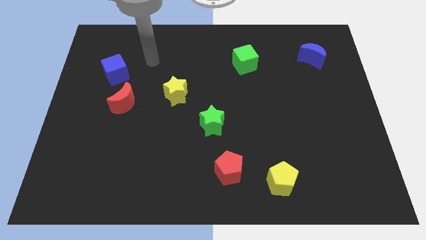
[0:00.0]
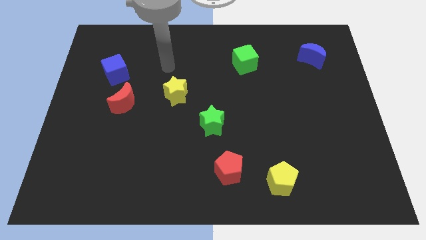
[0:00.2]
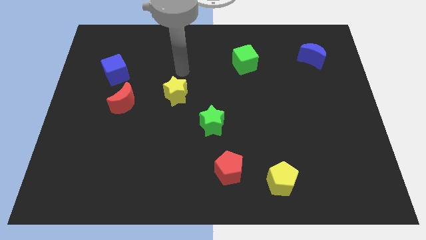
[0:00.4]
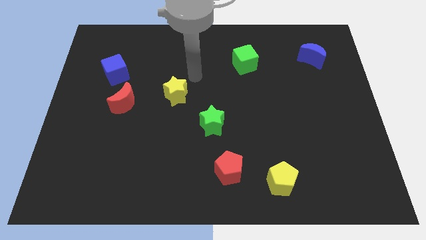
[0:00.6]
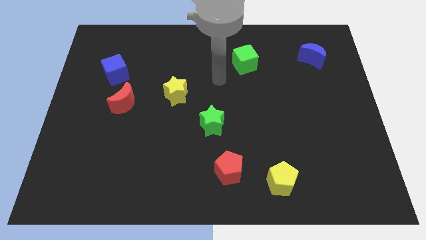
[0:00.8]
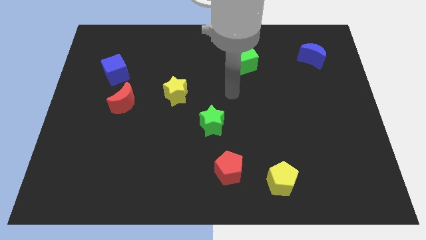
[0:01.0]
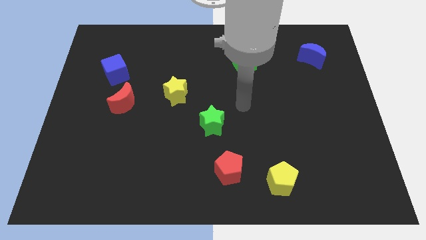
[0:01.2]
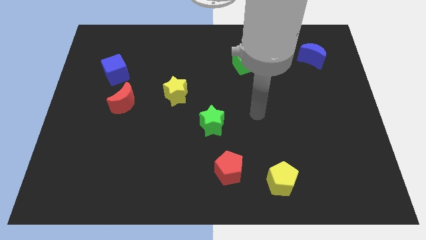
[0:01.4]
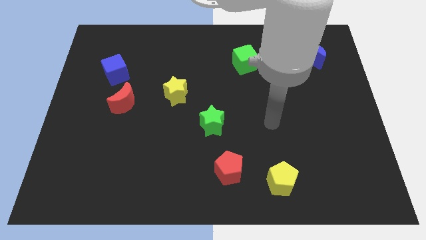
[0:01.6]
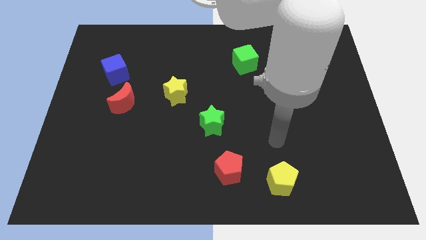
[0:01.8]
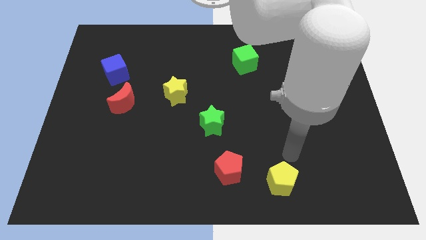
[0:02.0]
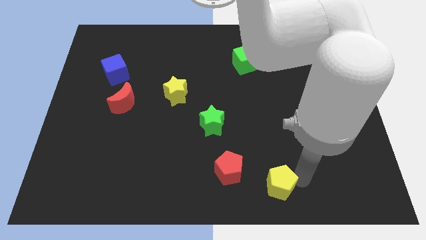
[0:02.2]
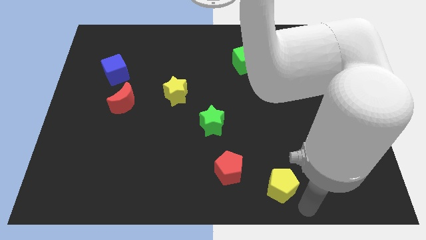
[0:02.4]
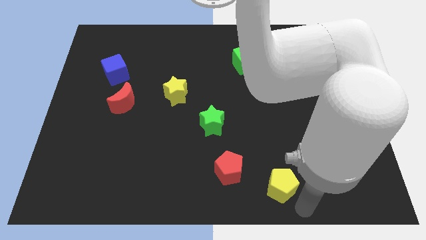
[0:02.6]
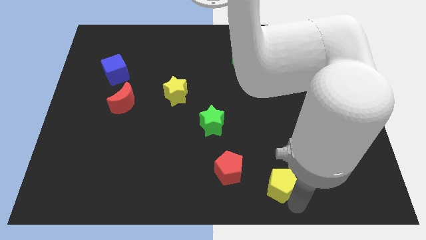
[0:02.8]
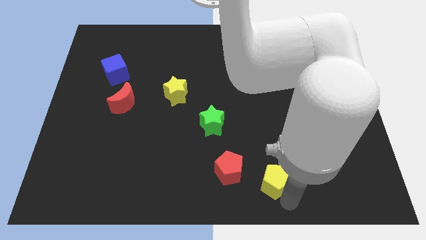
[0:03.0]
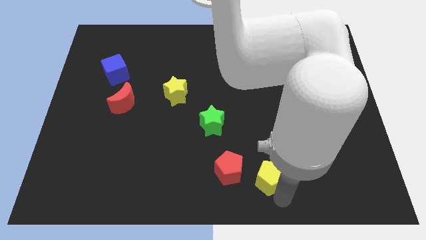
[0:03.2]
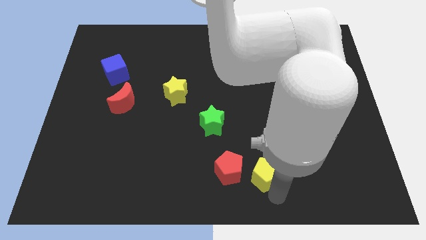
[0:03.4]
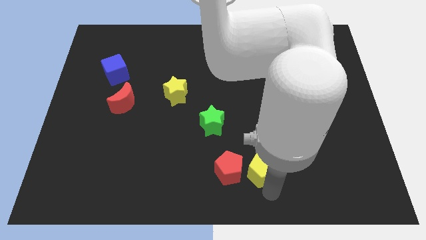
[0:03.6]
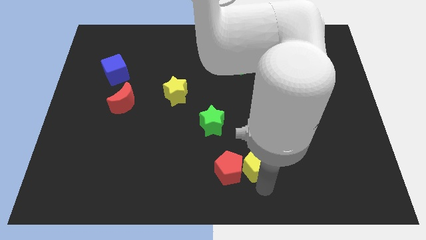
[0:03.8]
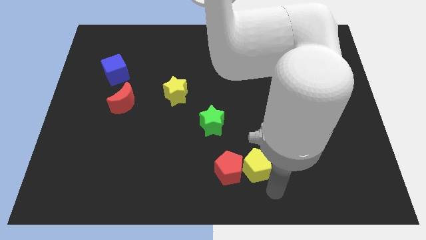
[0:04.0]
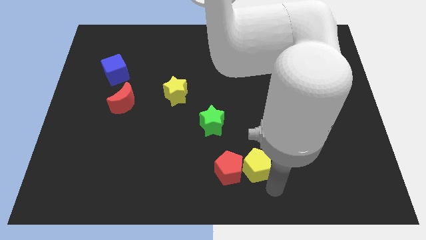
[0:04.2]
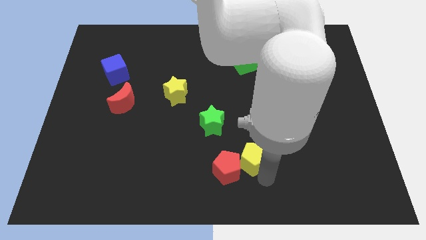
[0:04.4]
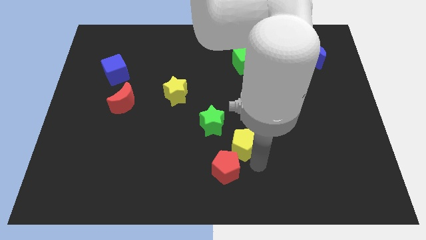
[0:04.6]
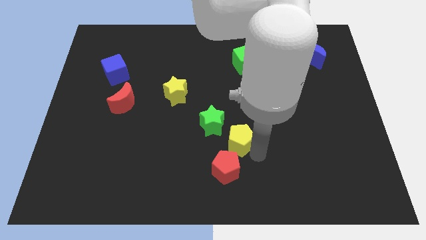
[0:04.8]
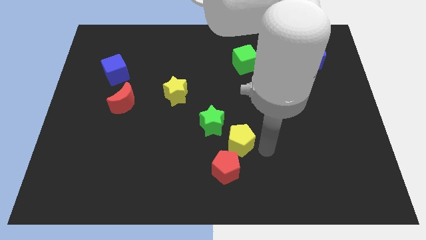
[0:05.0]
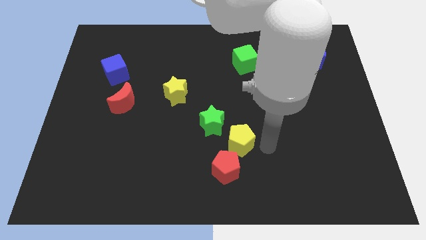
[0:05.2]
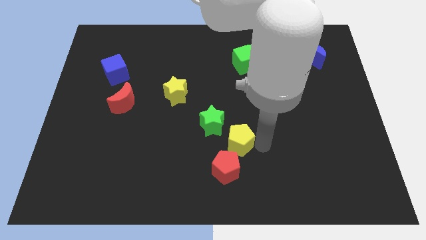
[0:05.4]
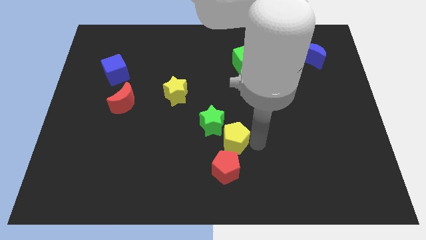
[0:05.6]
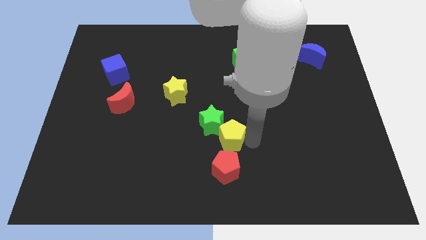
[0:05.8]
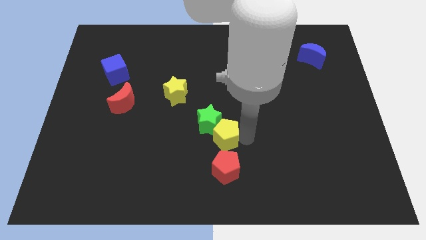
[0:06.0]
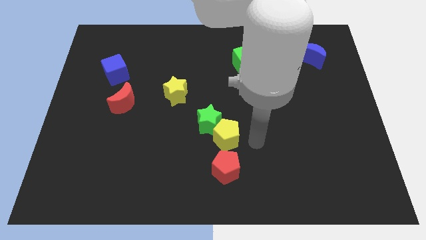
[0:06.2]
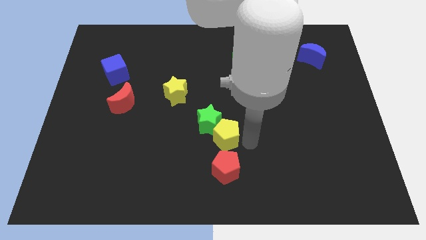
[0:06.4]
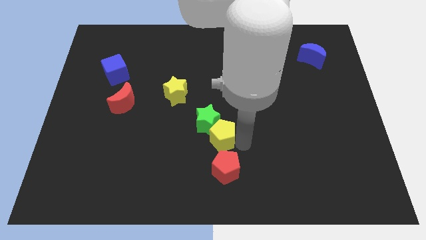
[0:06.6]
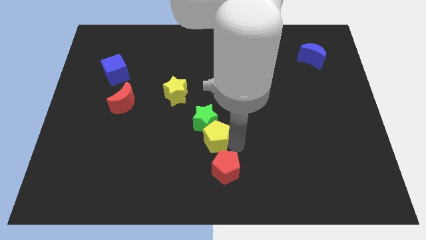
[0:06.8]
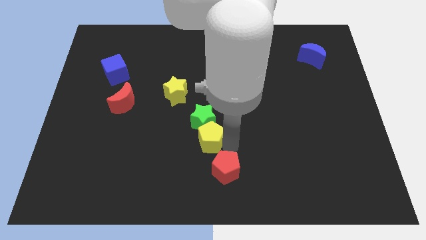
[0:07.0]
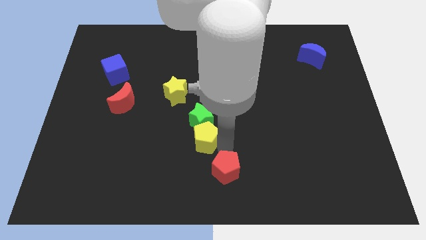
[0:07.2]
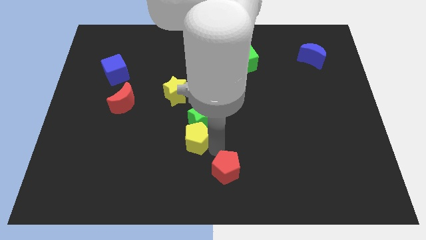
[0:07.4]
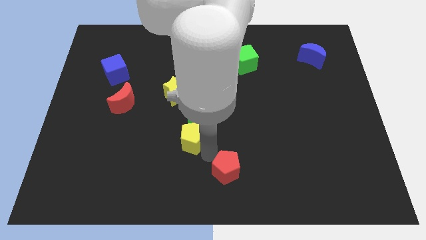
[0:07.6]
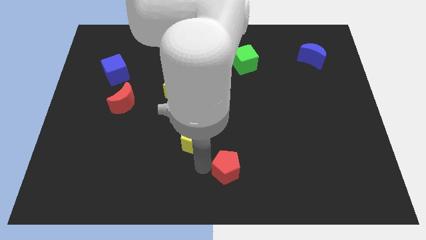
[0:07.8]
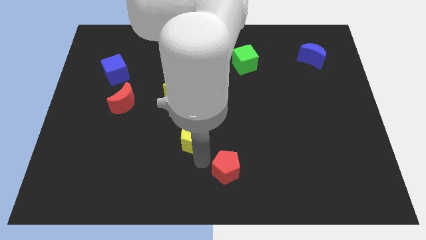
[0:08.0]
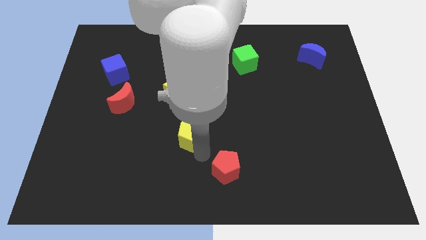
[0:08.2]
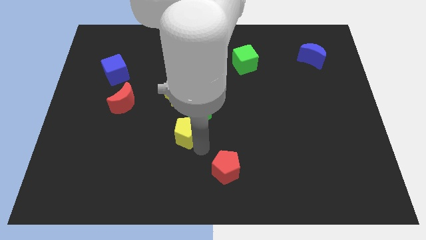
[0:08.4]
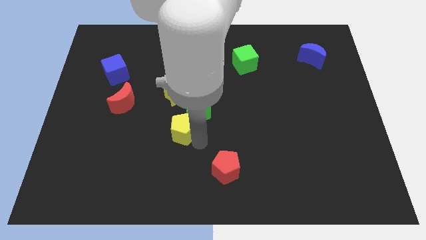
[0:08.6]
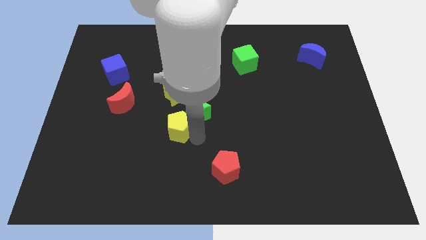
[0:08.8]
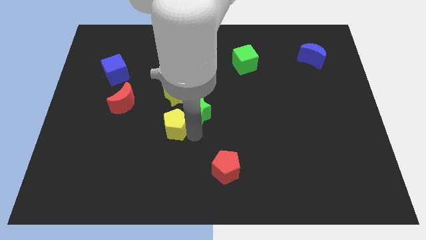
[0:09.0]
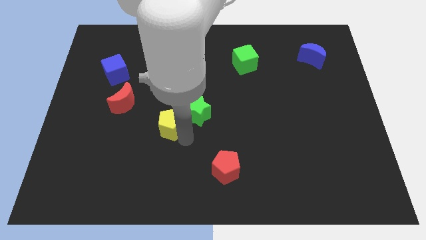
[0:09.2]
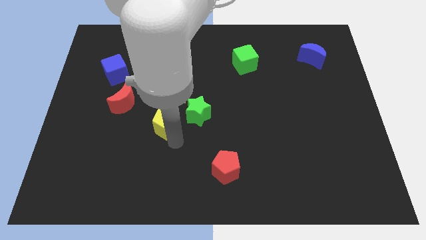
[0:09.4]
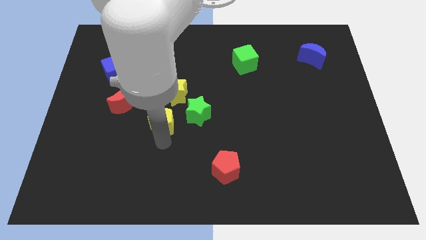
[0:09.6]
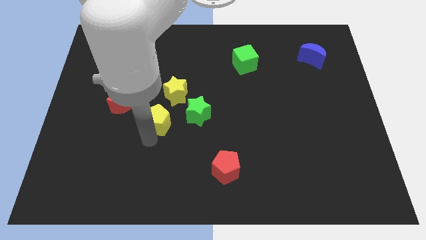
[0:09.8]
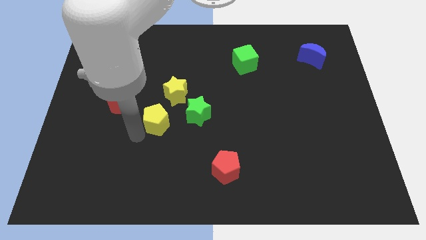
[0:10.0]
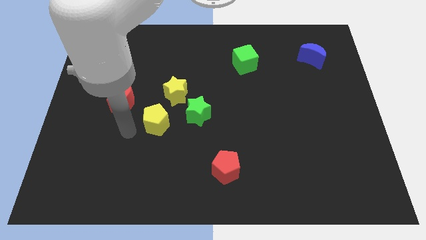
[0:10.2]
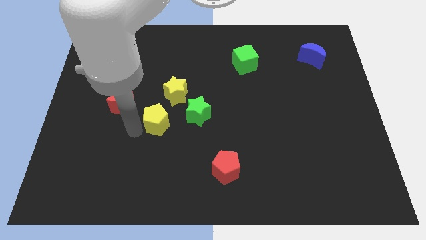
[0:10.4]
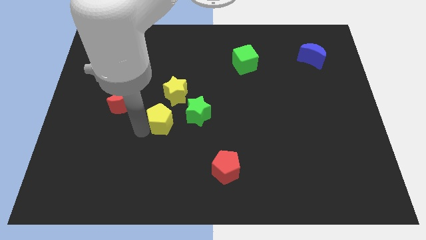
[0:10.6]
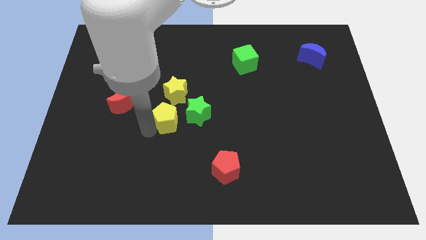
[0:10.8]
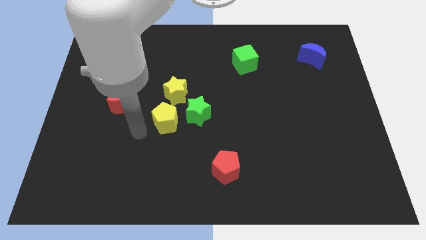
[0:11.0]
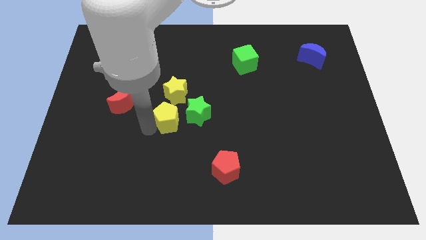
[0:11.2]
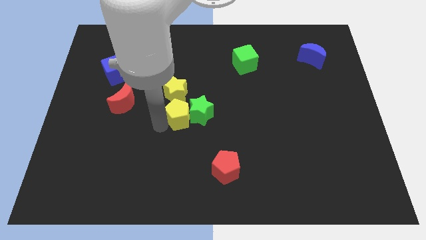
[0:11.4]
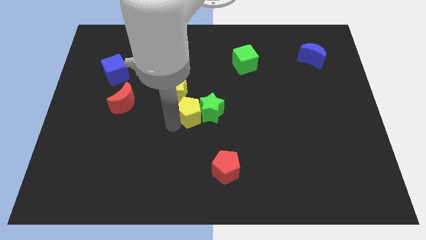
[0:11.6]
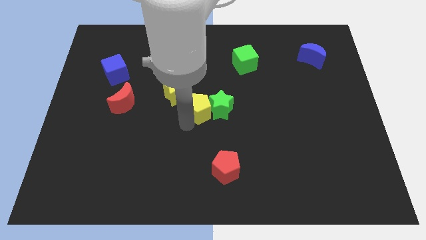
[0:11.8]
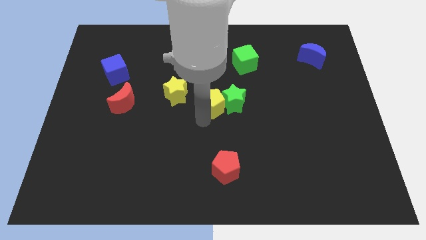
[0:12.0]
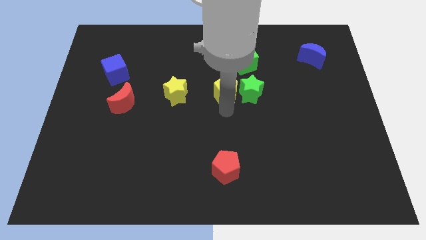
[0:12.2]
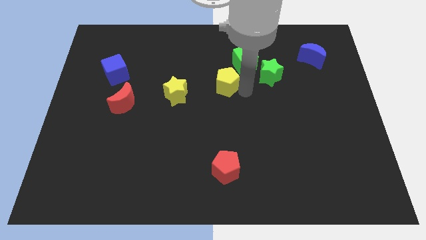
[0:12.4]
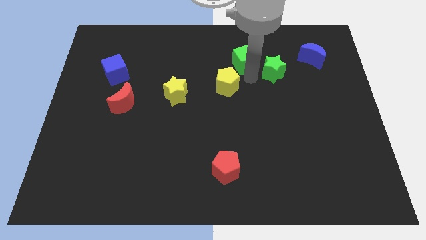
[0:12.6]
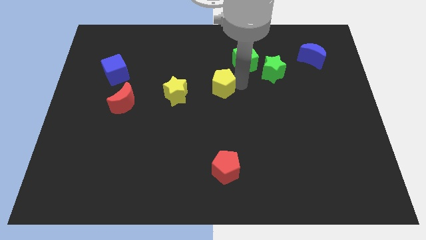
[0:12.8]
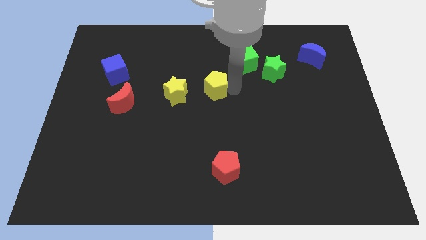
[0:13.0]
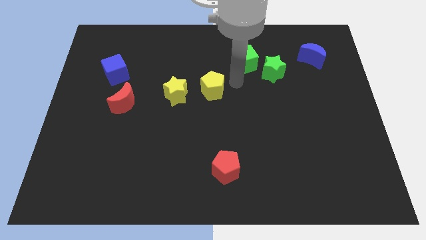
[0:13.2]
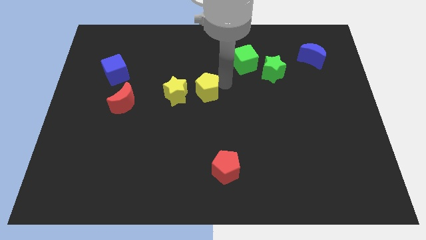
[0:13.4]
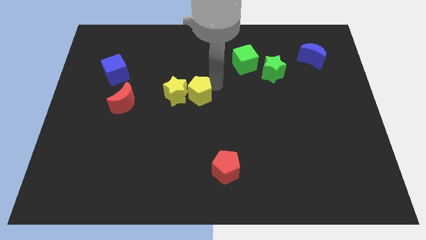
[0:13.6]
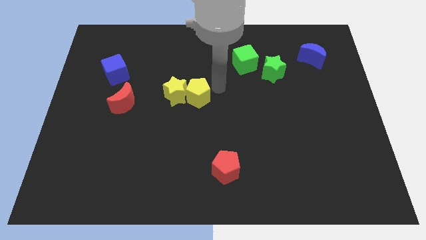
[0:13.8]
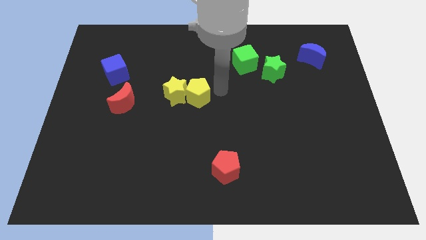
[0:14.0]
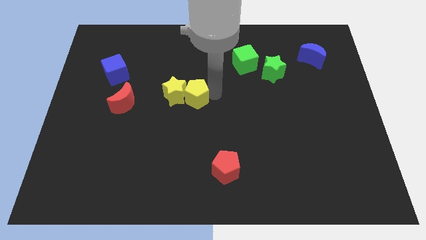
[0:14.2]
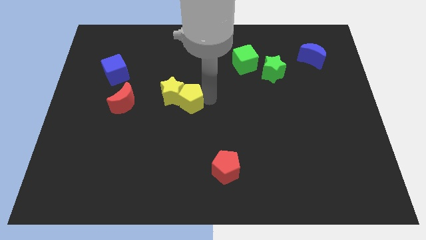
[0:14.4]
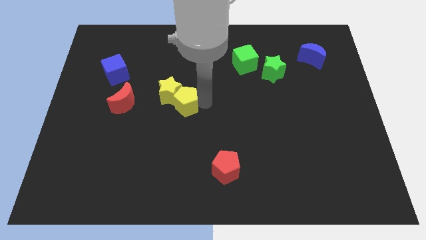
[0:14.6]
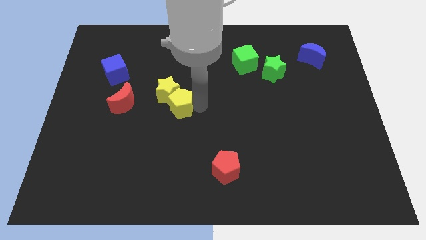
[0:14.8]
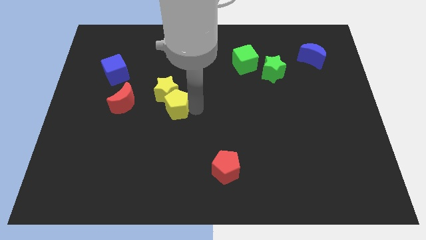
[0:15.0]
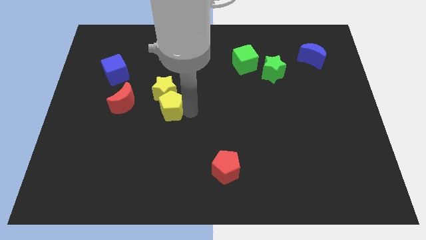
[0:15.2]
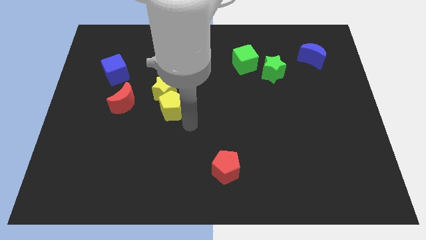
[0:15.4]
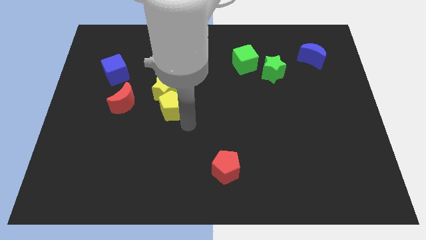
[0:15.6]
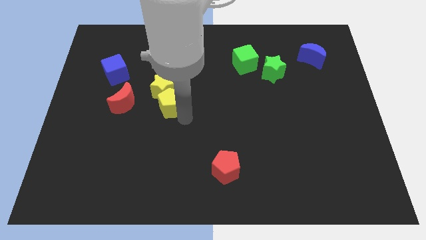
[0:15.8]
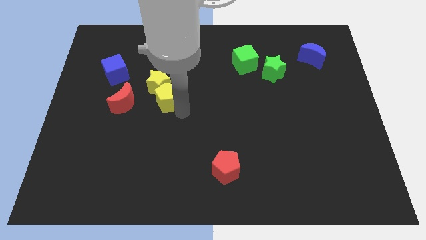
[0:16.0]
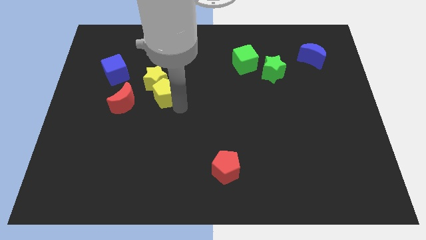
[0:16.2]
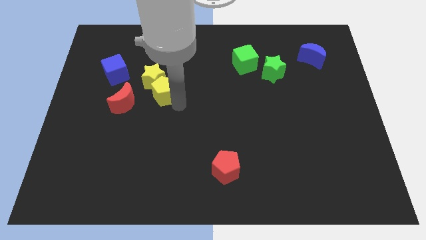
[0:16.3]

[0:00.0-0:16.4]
move the yellow pentagon diagonally up and to the right of the red moon
